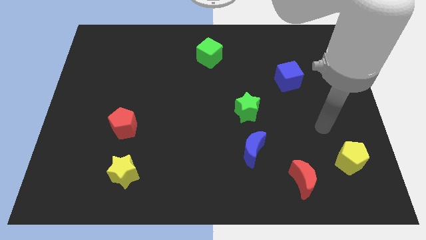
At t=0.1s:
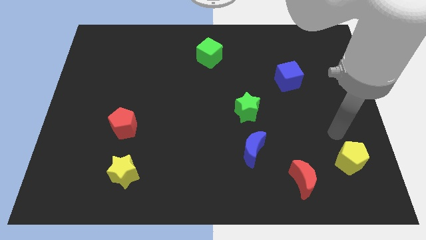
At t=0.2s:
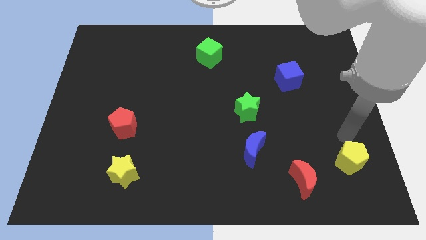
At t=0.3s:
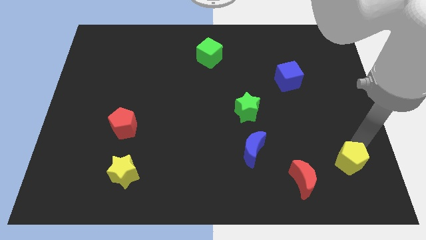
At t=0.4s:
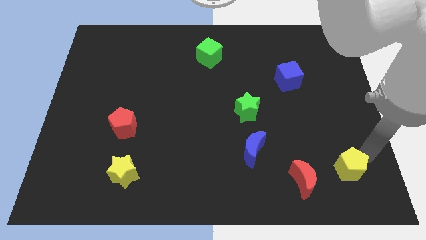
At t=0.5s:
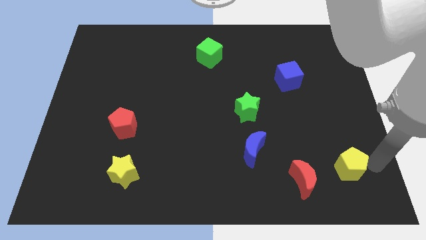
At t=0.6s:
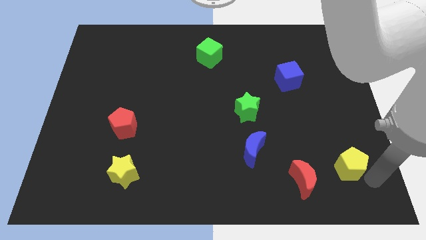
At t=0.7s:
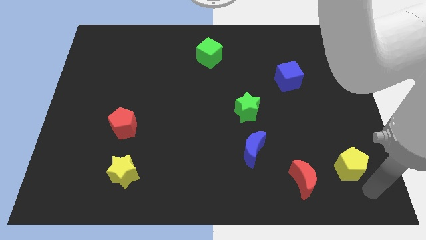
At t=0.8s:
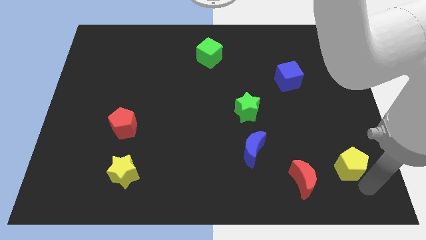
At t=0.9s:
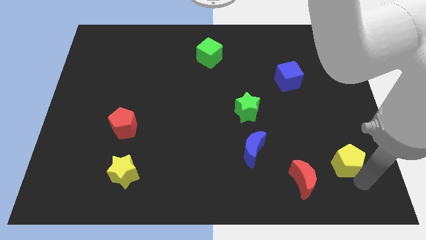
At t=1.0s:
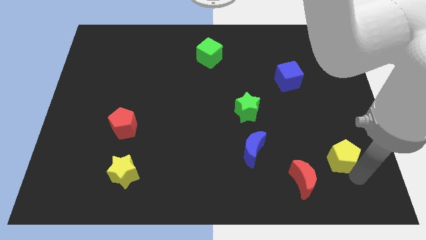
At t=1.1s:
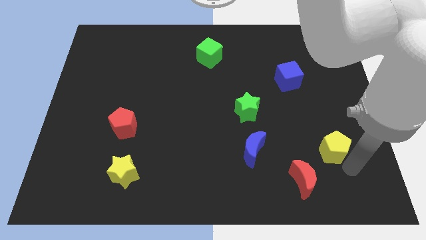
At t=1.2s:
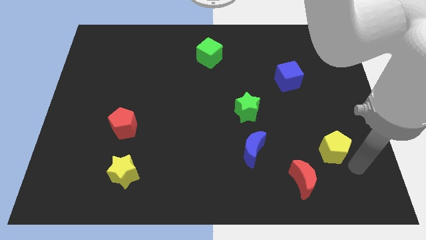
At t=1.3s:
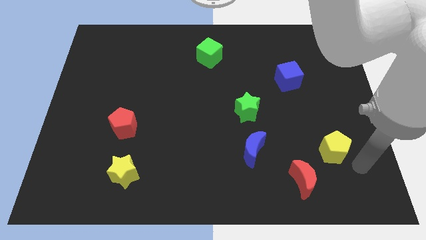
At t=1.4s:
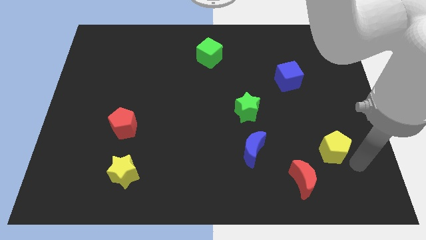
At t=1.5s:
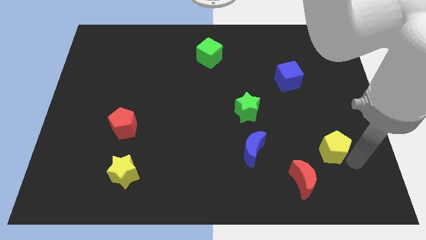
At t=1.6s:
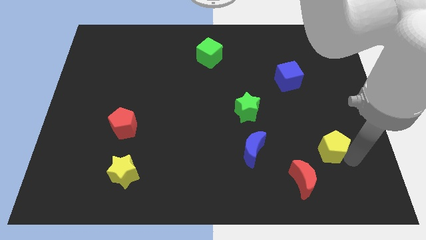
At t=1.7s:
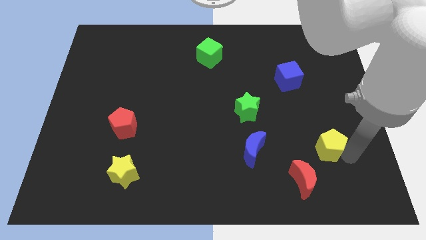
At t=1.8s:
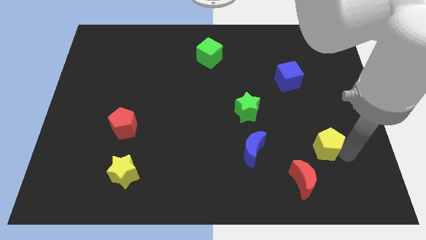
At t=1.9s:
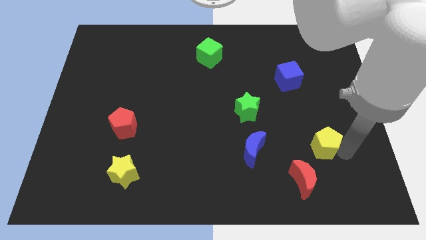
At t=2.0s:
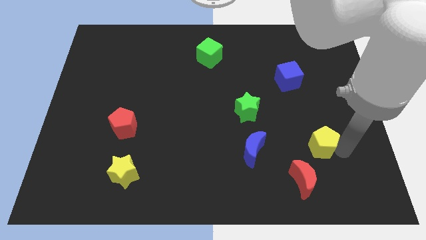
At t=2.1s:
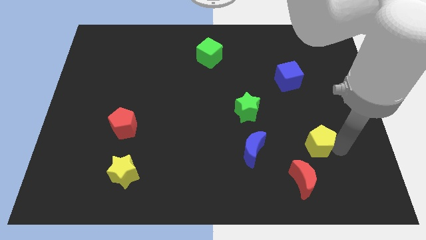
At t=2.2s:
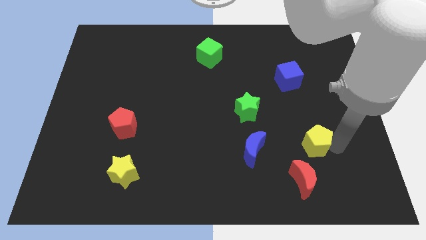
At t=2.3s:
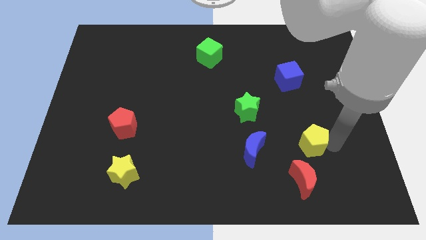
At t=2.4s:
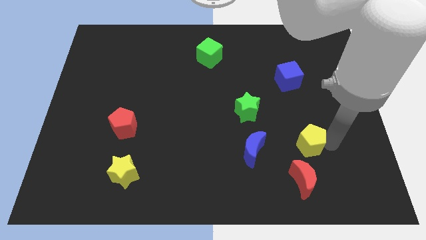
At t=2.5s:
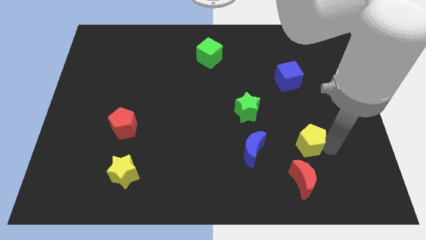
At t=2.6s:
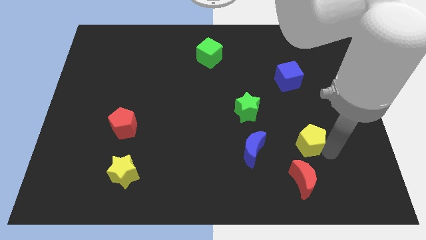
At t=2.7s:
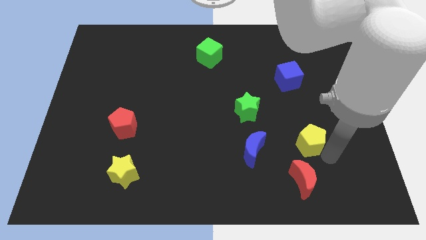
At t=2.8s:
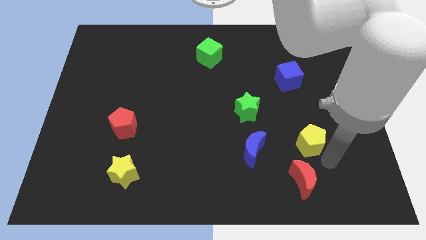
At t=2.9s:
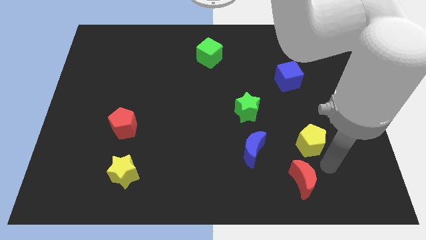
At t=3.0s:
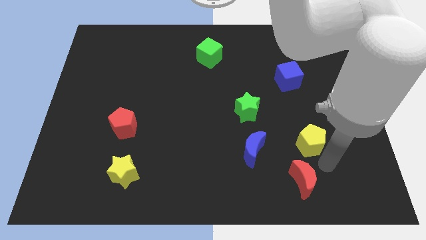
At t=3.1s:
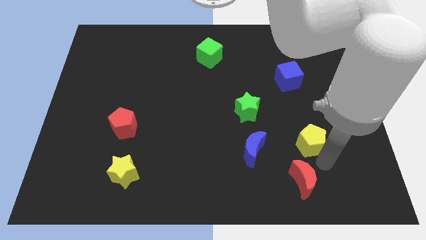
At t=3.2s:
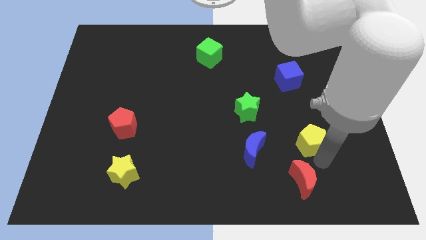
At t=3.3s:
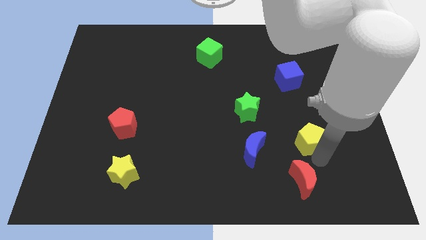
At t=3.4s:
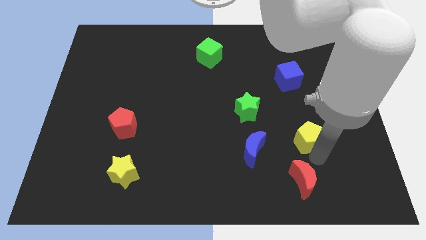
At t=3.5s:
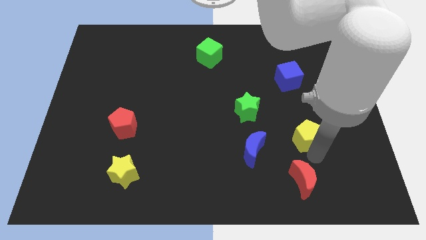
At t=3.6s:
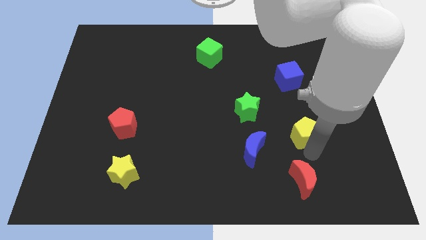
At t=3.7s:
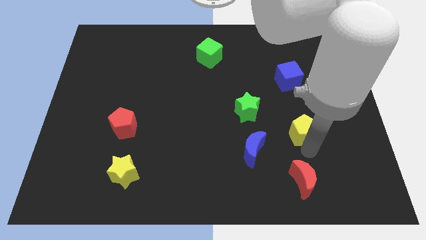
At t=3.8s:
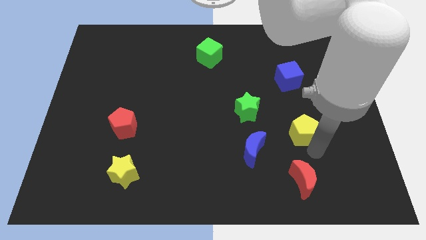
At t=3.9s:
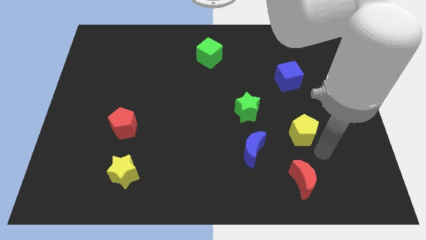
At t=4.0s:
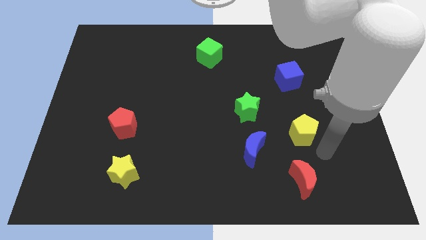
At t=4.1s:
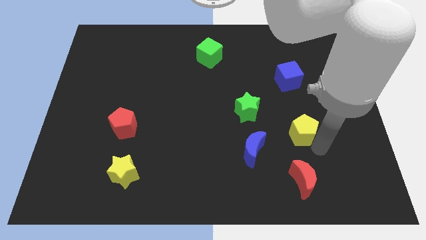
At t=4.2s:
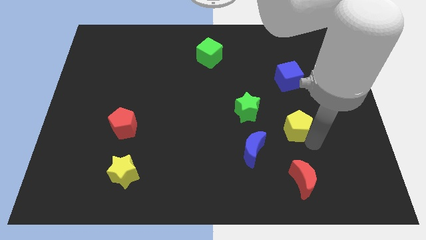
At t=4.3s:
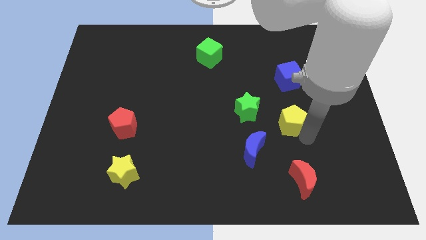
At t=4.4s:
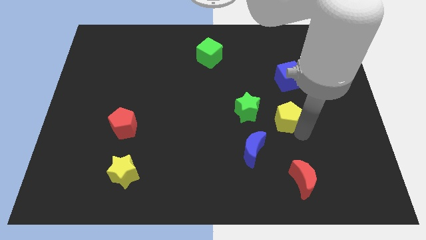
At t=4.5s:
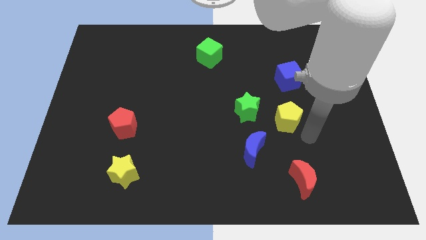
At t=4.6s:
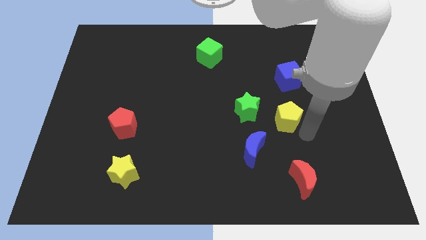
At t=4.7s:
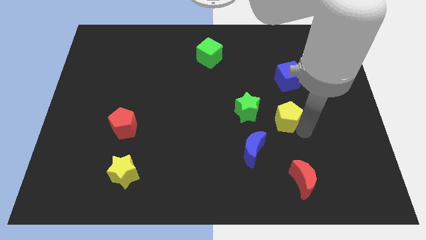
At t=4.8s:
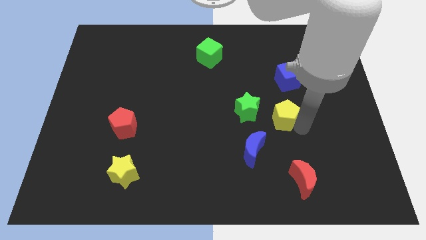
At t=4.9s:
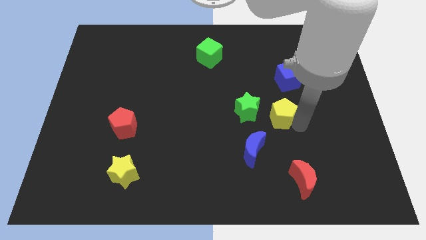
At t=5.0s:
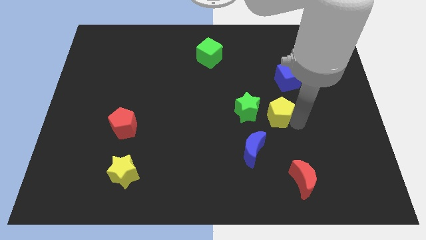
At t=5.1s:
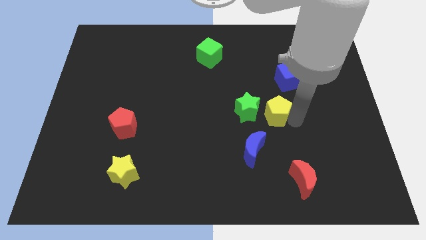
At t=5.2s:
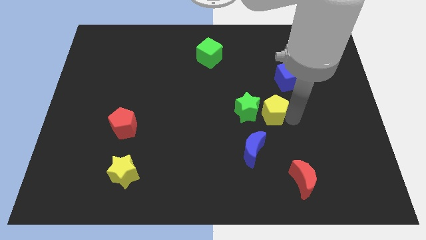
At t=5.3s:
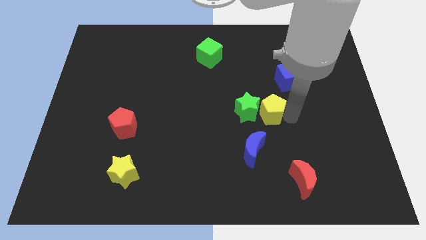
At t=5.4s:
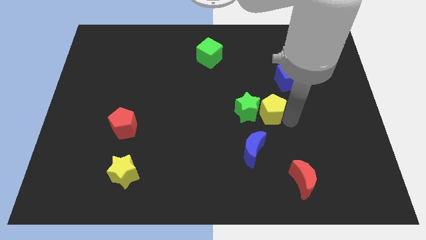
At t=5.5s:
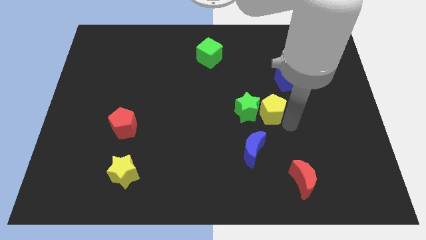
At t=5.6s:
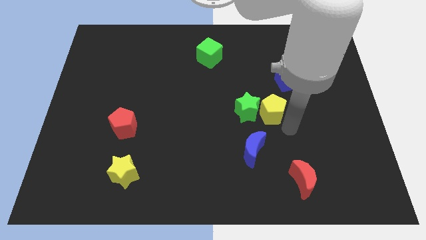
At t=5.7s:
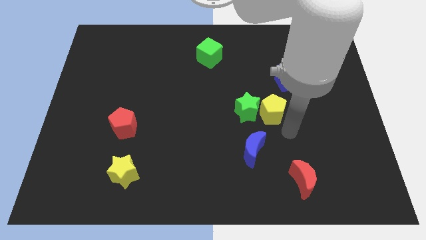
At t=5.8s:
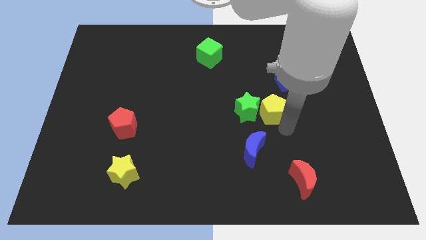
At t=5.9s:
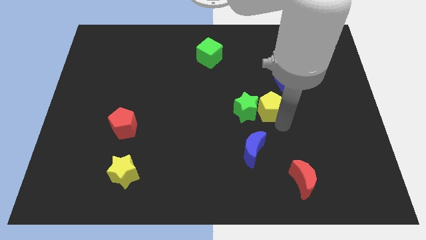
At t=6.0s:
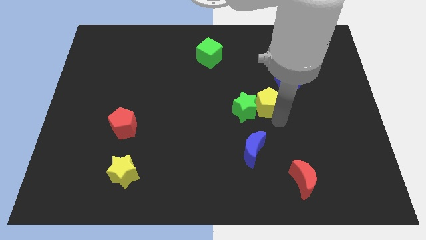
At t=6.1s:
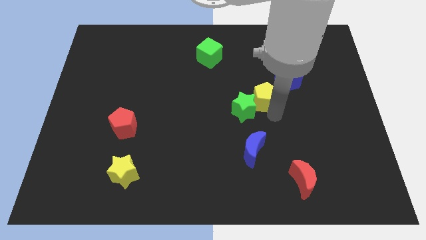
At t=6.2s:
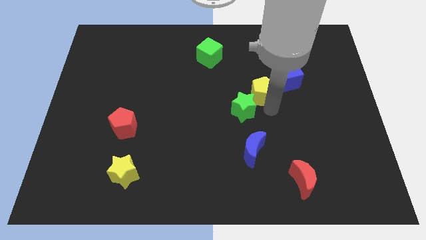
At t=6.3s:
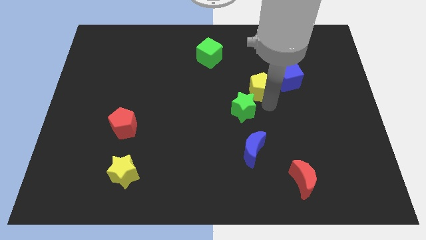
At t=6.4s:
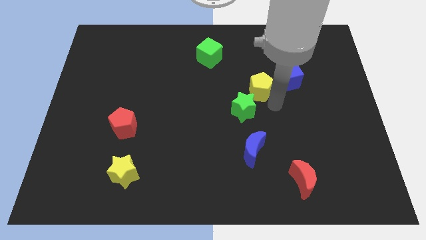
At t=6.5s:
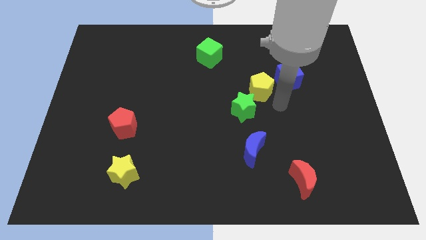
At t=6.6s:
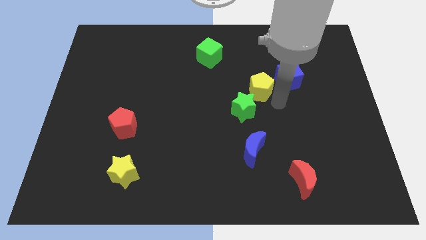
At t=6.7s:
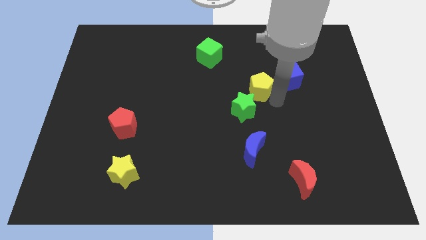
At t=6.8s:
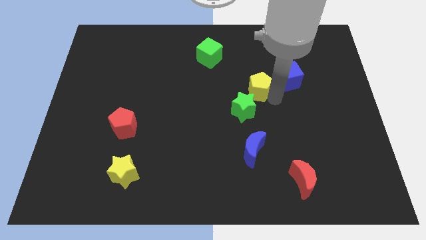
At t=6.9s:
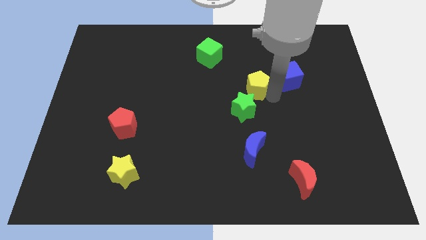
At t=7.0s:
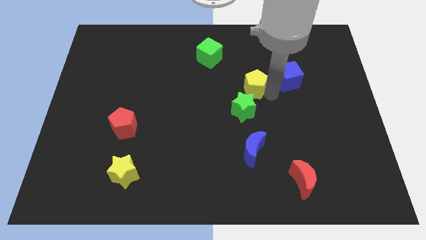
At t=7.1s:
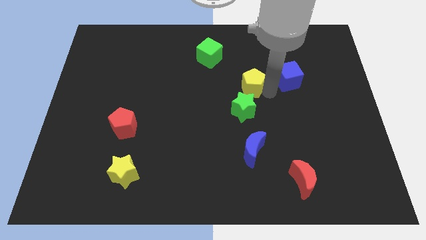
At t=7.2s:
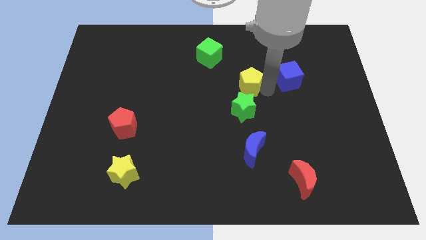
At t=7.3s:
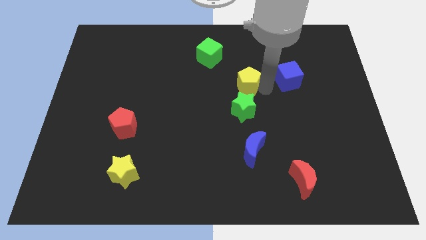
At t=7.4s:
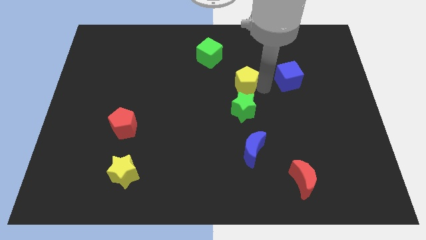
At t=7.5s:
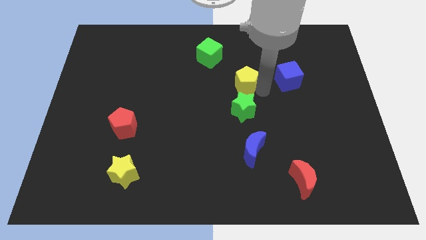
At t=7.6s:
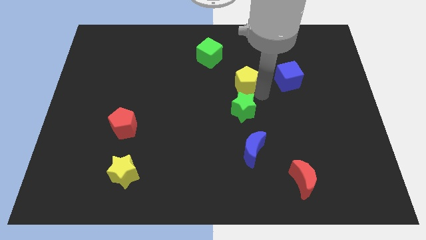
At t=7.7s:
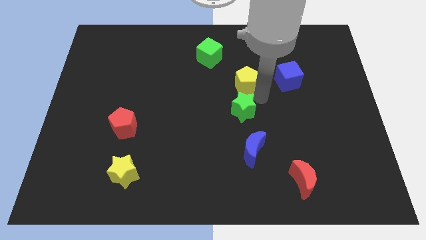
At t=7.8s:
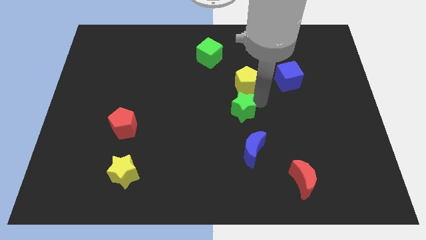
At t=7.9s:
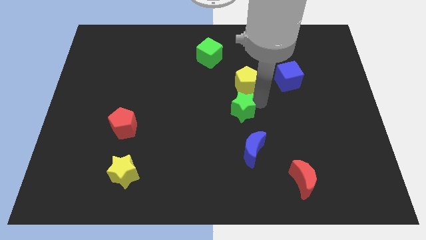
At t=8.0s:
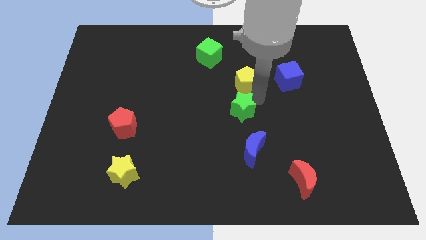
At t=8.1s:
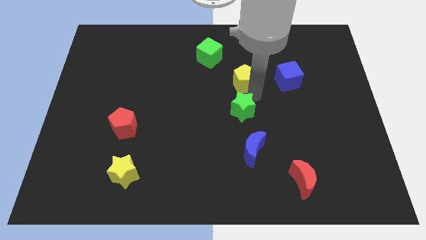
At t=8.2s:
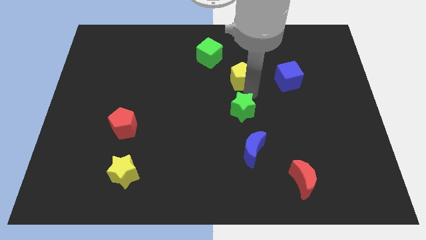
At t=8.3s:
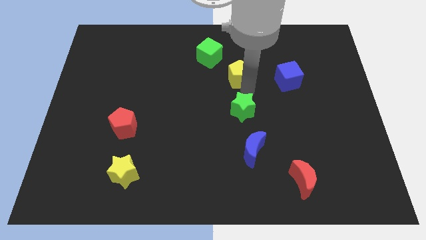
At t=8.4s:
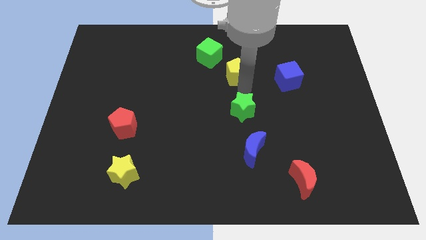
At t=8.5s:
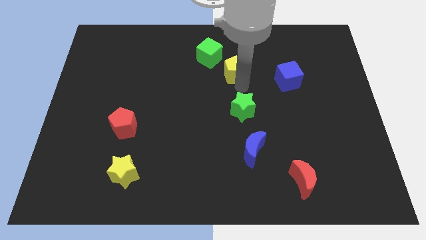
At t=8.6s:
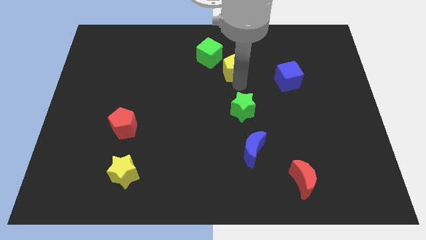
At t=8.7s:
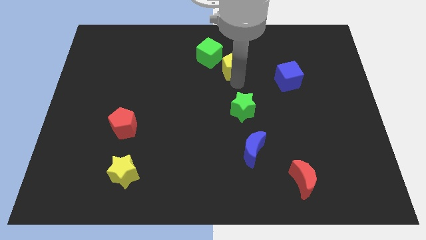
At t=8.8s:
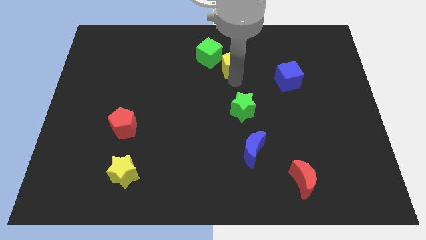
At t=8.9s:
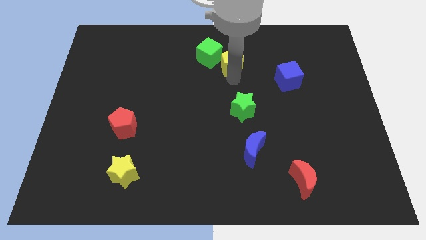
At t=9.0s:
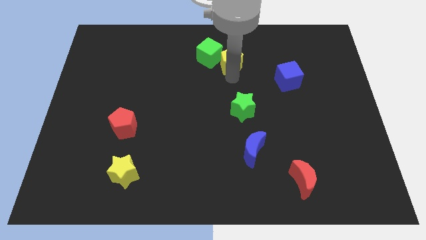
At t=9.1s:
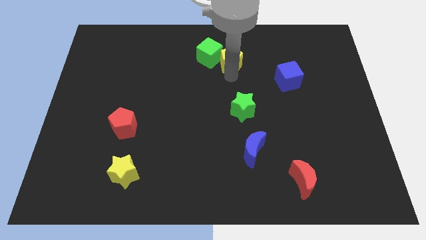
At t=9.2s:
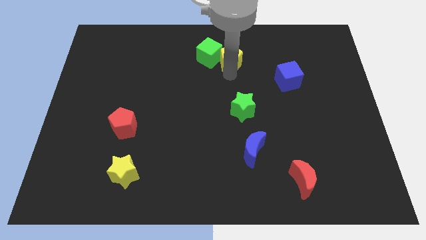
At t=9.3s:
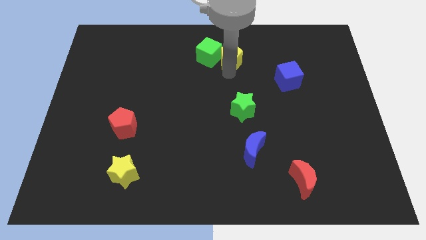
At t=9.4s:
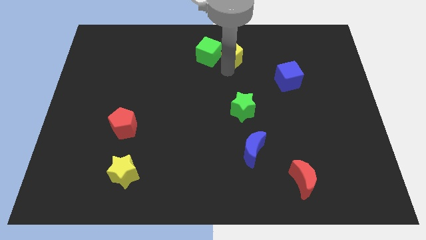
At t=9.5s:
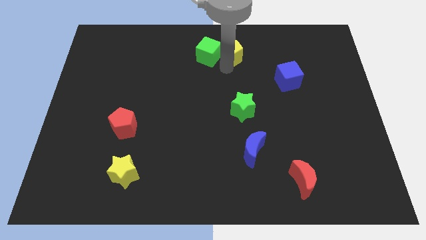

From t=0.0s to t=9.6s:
put the yellow pentagon to the top
